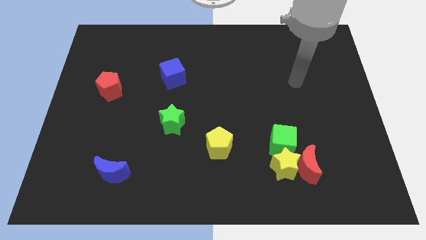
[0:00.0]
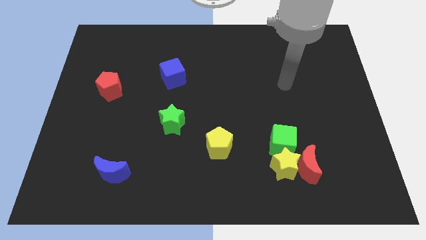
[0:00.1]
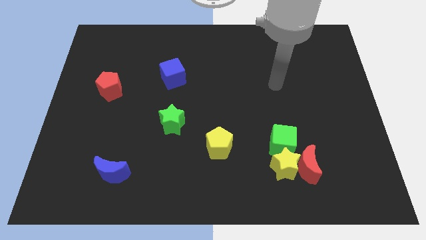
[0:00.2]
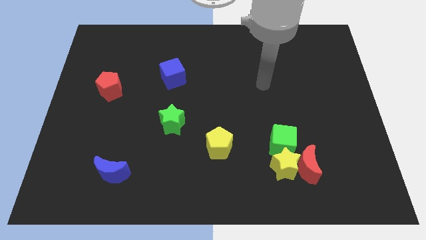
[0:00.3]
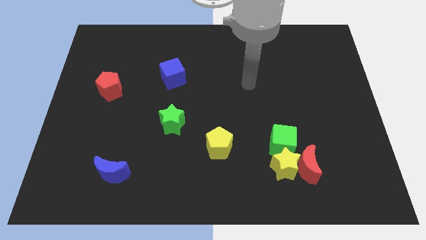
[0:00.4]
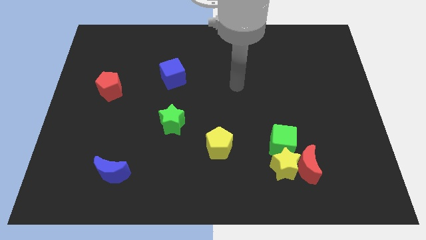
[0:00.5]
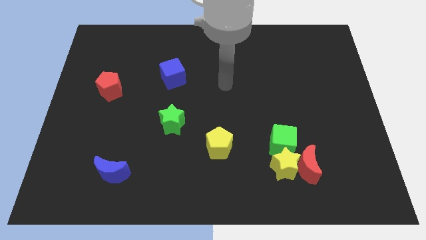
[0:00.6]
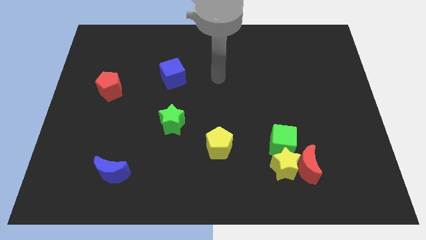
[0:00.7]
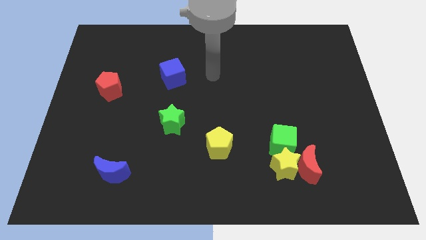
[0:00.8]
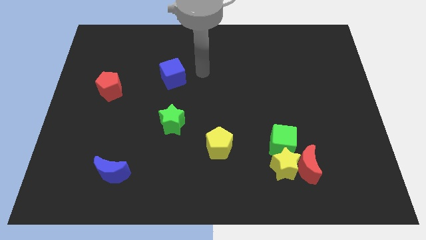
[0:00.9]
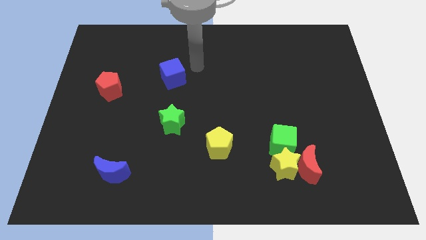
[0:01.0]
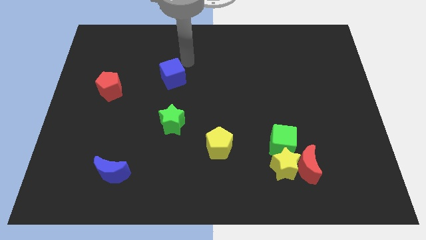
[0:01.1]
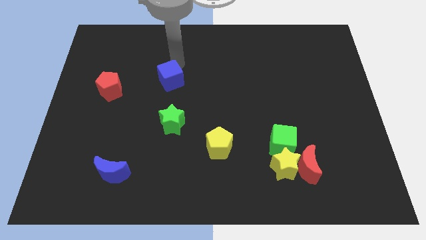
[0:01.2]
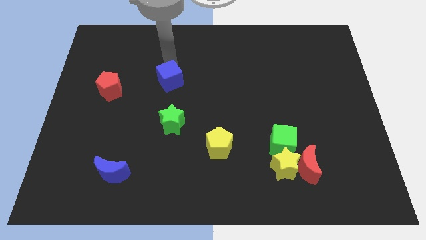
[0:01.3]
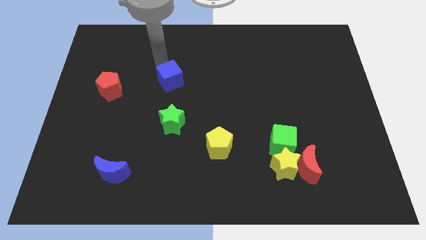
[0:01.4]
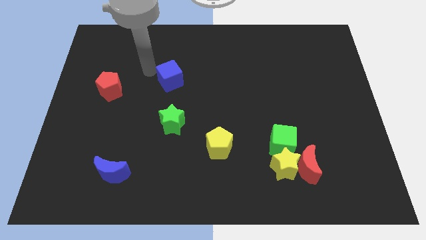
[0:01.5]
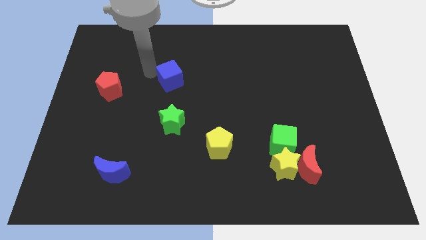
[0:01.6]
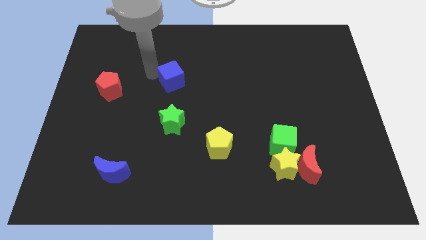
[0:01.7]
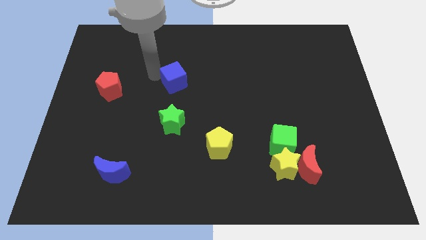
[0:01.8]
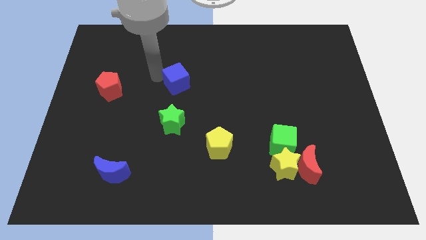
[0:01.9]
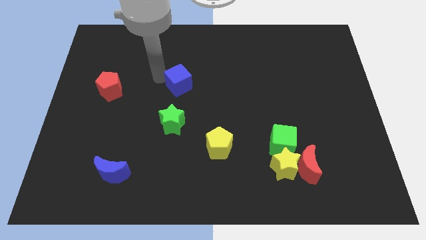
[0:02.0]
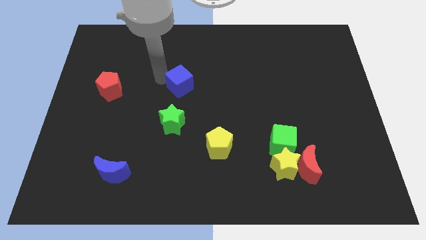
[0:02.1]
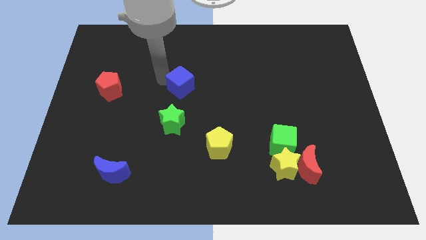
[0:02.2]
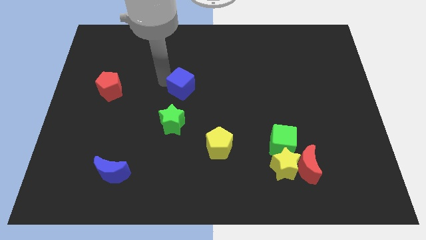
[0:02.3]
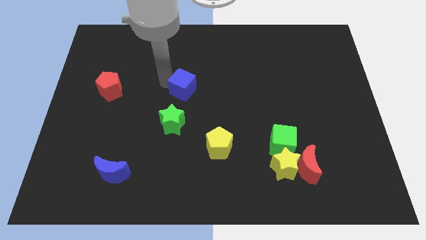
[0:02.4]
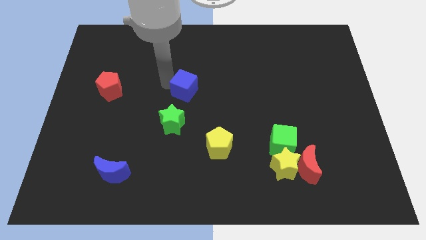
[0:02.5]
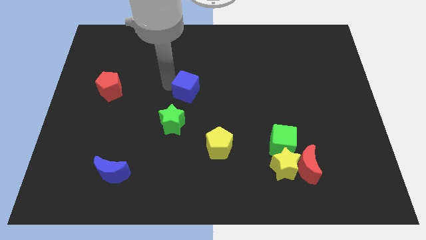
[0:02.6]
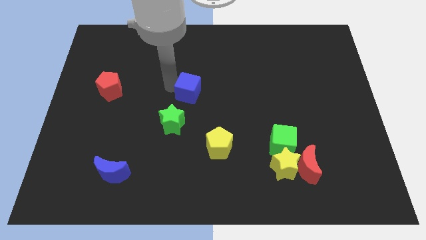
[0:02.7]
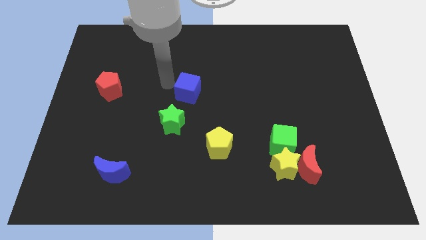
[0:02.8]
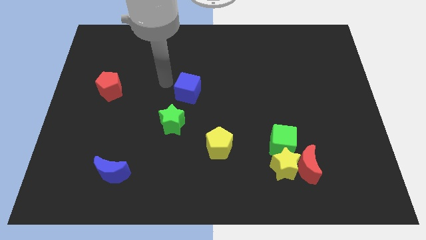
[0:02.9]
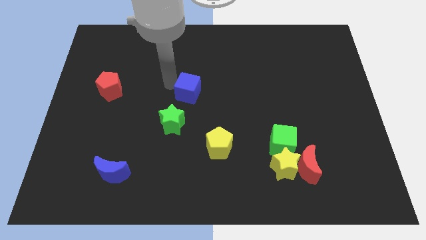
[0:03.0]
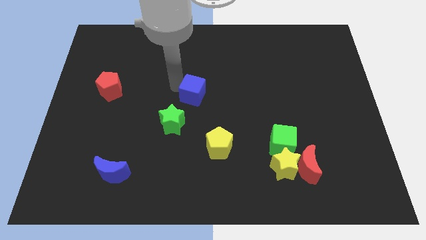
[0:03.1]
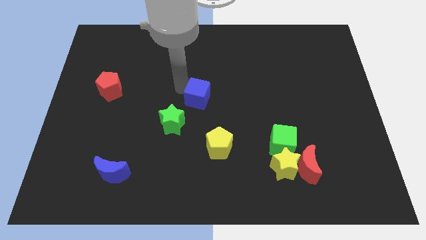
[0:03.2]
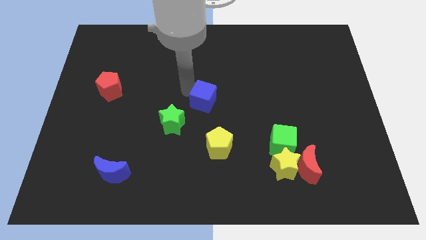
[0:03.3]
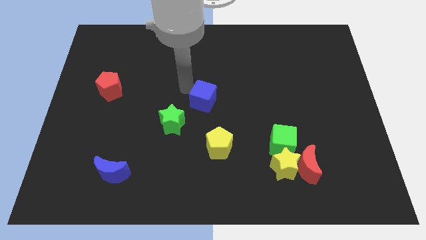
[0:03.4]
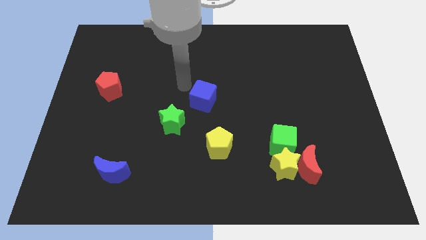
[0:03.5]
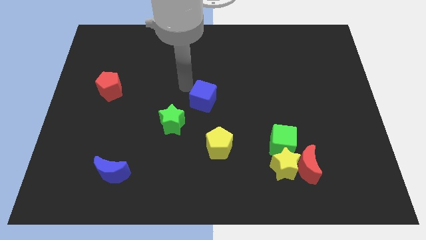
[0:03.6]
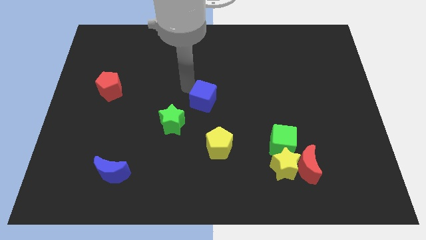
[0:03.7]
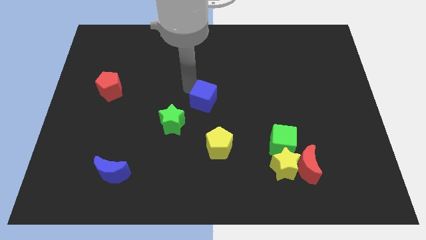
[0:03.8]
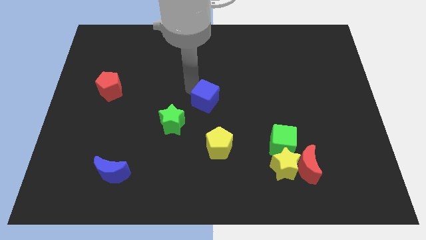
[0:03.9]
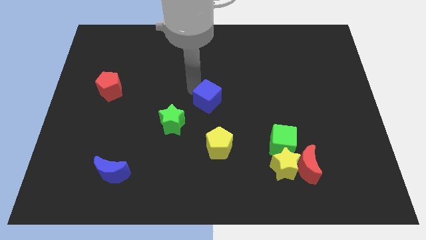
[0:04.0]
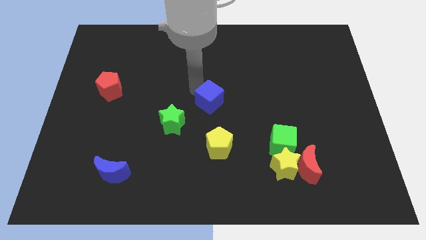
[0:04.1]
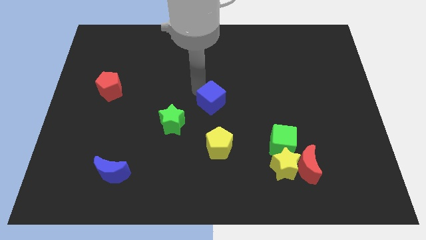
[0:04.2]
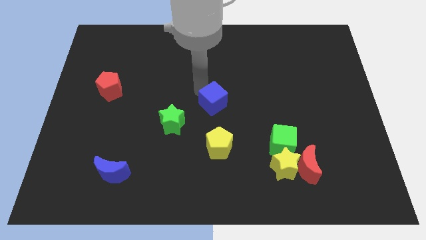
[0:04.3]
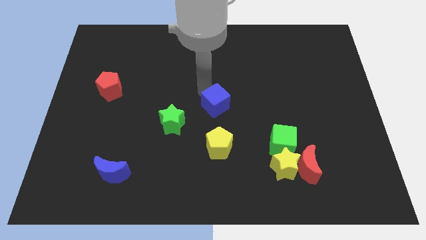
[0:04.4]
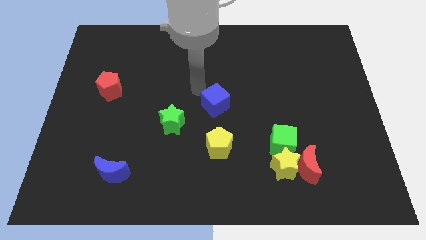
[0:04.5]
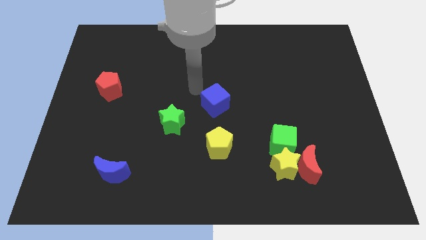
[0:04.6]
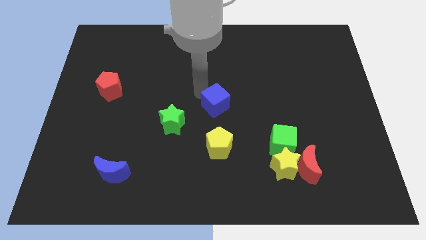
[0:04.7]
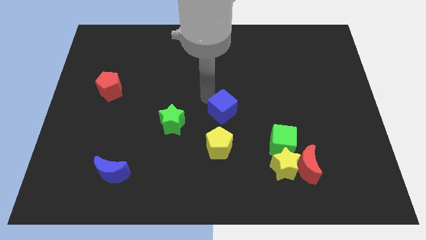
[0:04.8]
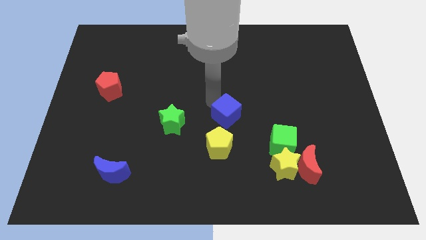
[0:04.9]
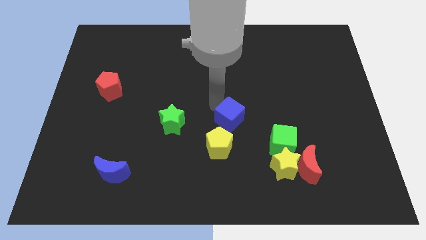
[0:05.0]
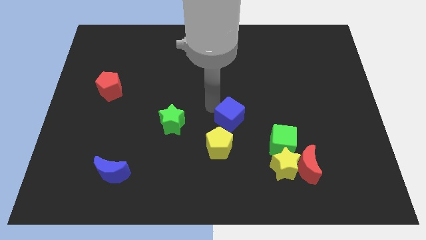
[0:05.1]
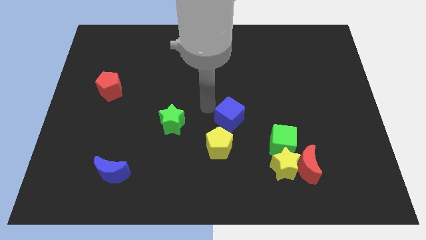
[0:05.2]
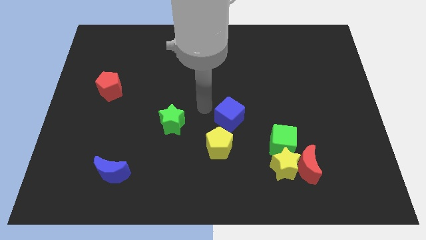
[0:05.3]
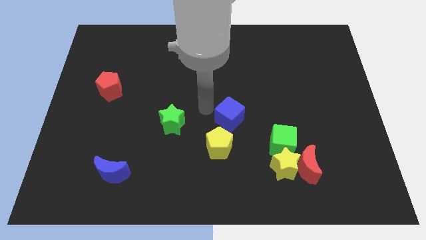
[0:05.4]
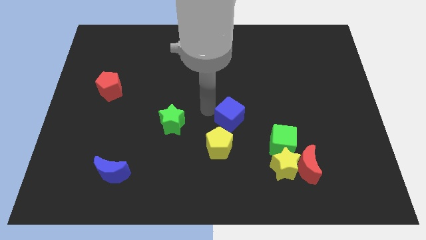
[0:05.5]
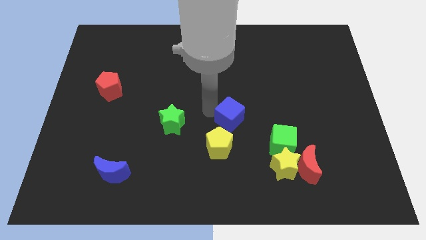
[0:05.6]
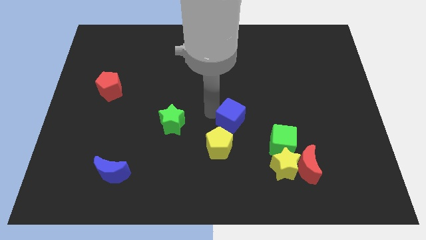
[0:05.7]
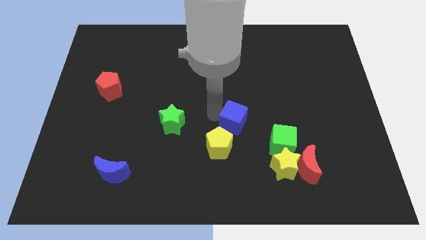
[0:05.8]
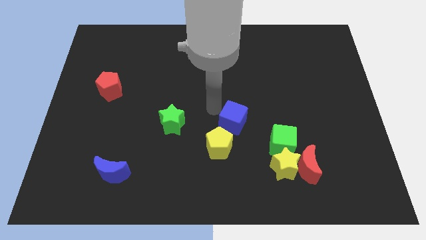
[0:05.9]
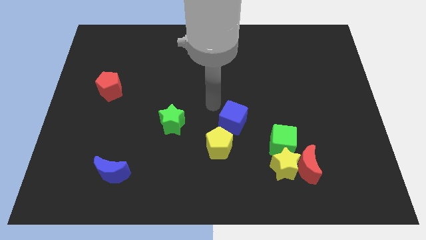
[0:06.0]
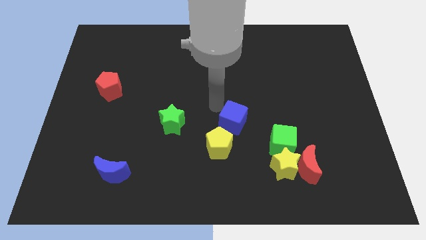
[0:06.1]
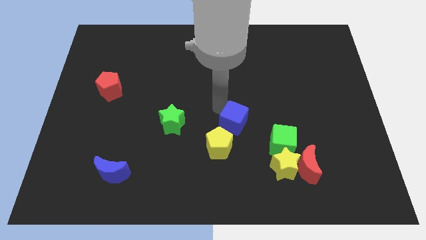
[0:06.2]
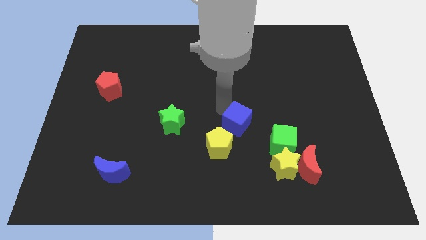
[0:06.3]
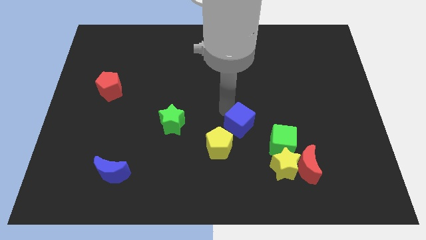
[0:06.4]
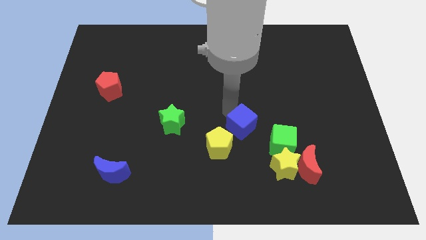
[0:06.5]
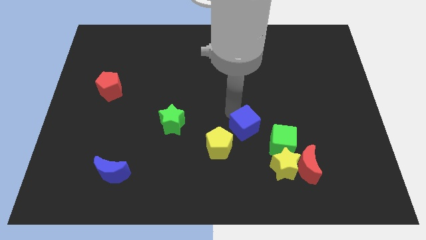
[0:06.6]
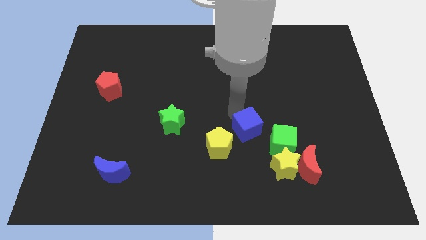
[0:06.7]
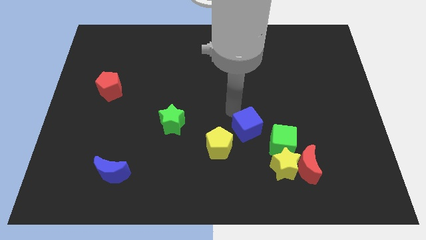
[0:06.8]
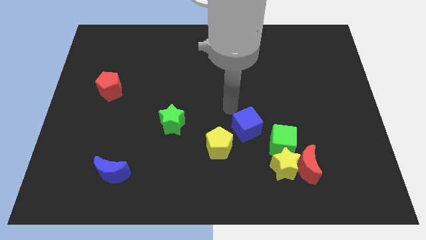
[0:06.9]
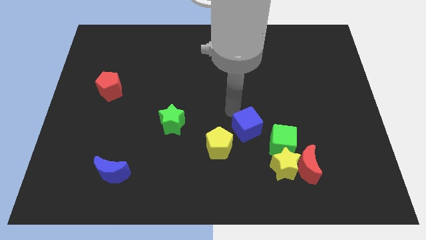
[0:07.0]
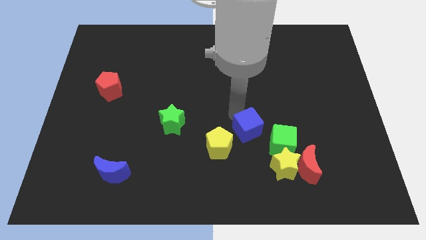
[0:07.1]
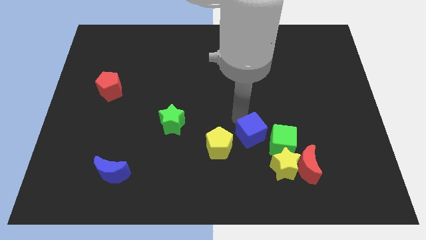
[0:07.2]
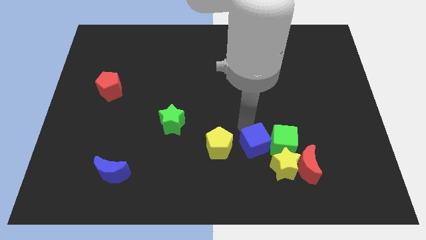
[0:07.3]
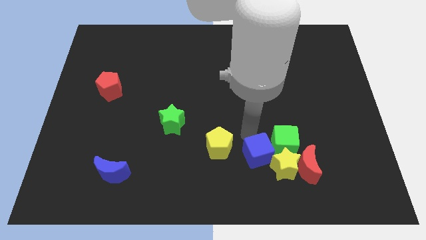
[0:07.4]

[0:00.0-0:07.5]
push the blue cube next to the yellow star
